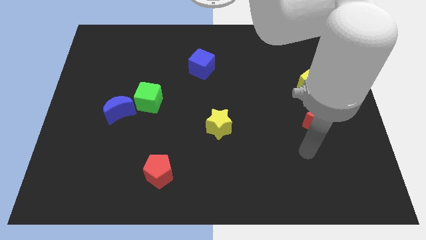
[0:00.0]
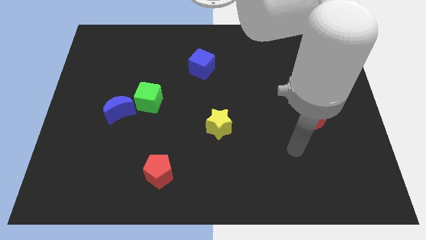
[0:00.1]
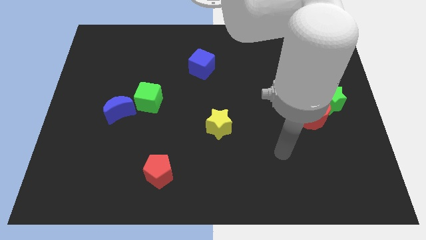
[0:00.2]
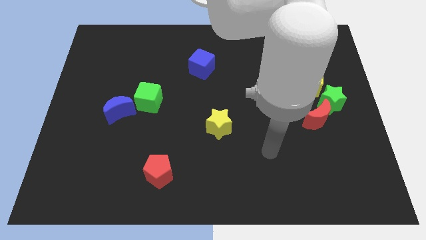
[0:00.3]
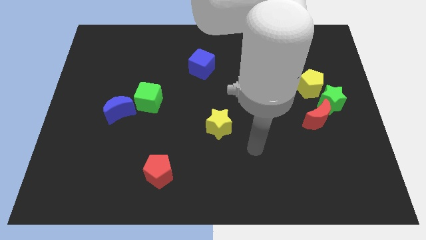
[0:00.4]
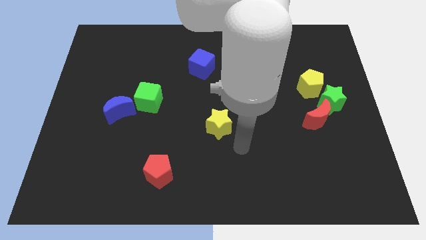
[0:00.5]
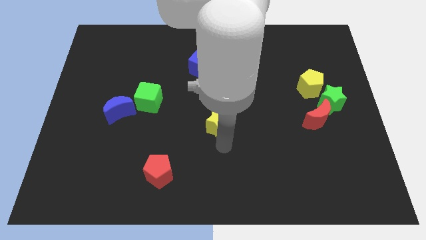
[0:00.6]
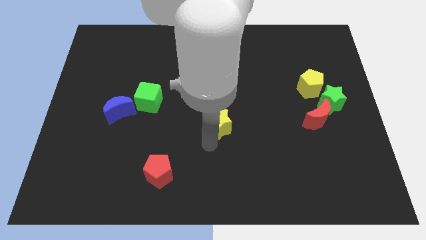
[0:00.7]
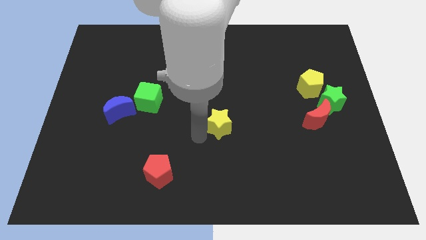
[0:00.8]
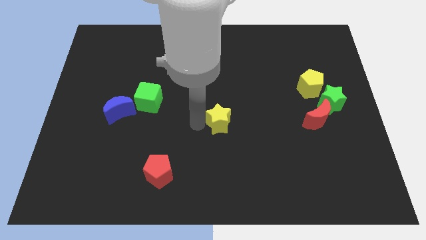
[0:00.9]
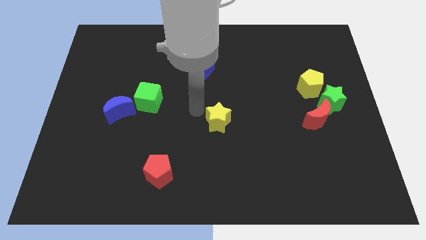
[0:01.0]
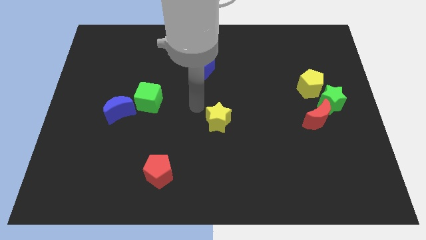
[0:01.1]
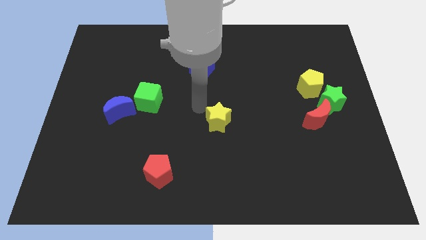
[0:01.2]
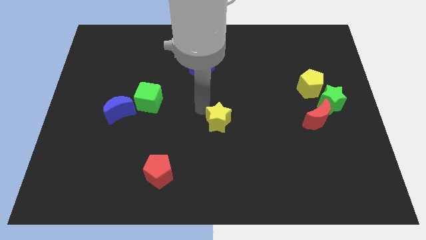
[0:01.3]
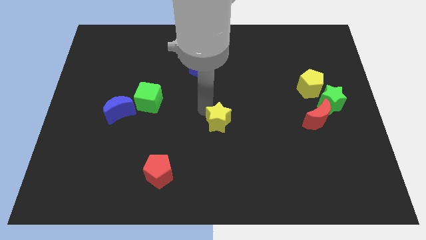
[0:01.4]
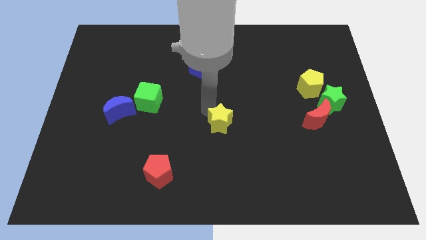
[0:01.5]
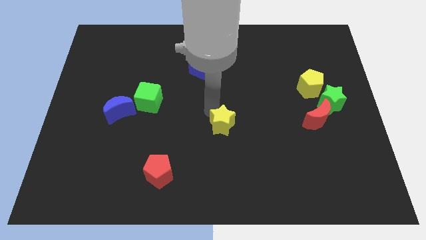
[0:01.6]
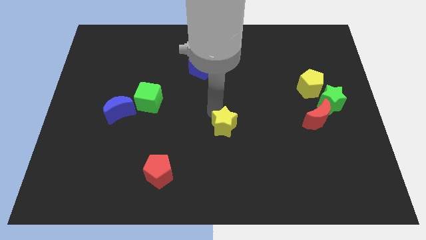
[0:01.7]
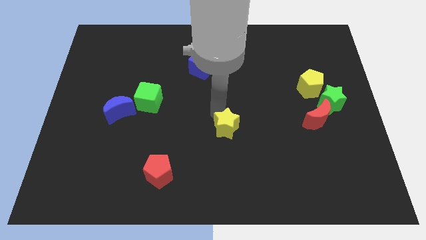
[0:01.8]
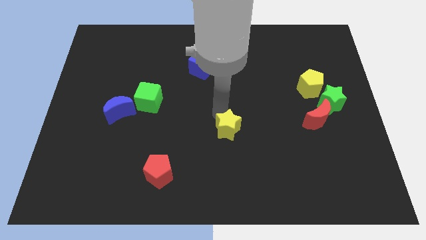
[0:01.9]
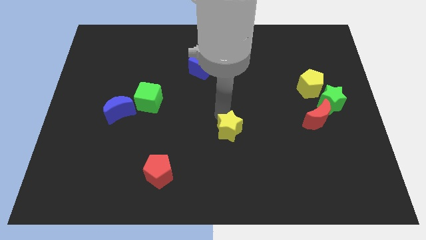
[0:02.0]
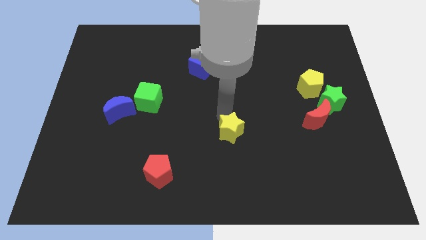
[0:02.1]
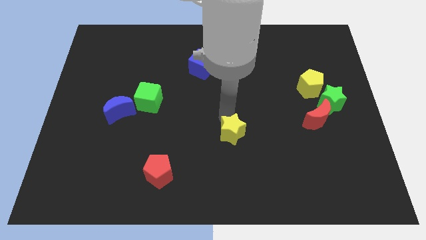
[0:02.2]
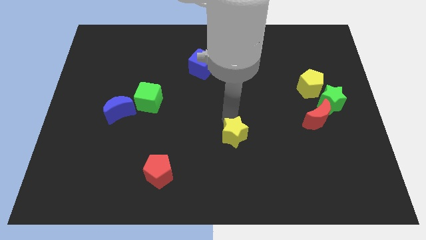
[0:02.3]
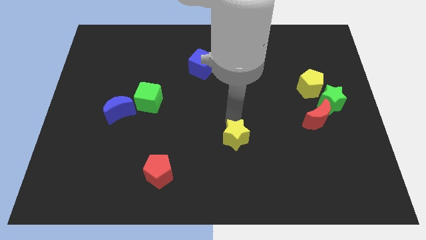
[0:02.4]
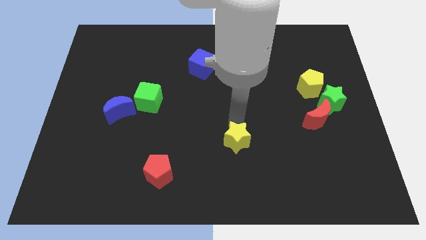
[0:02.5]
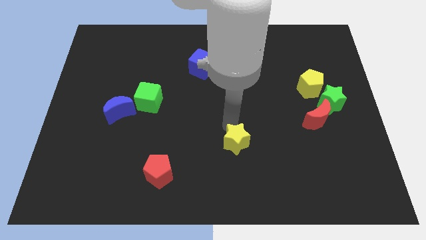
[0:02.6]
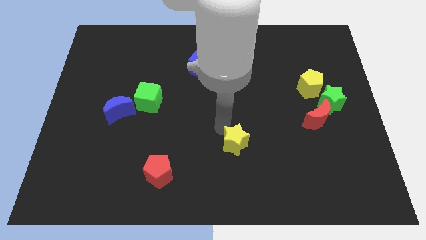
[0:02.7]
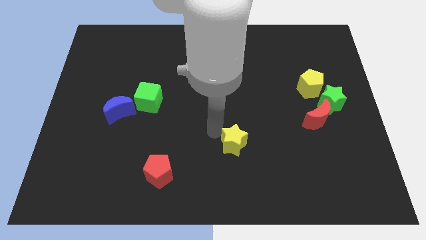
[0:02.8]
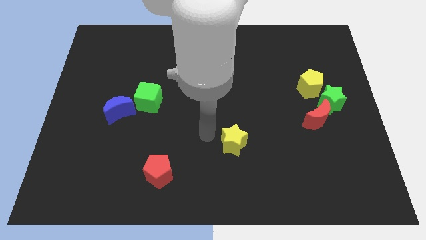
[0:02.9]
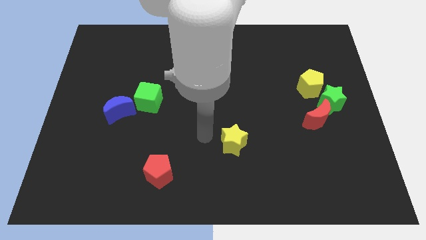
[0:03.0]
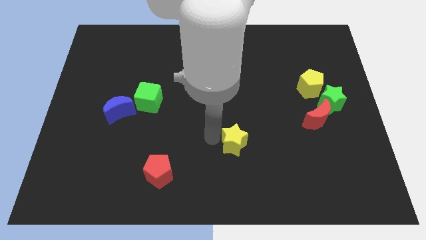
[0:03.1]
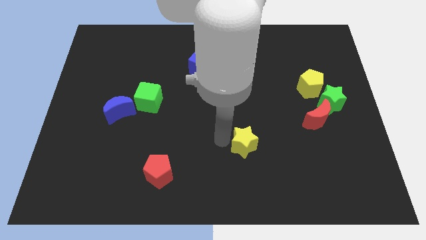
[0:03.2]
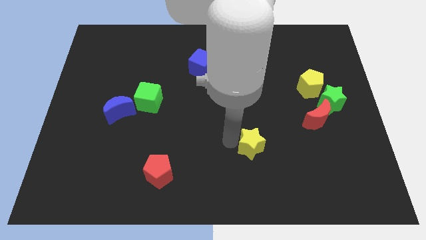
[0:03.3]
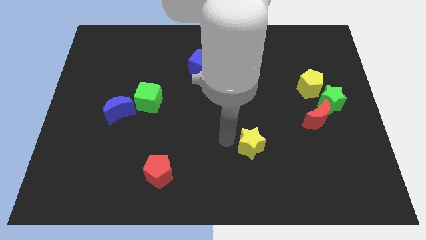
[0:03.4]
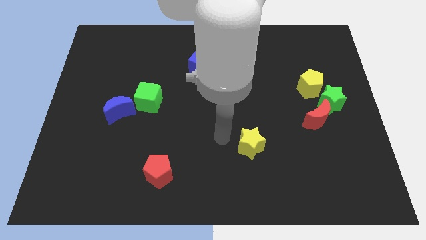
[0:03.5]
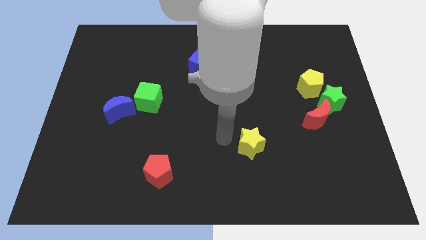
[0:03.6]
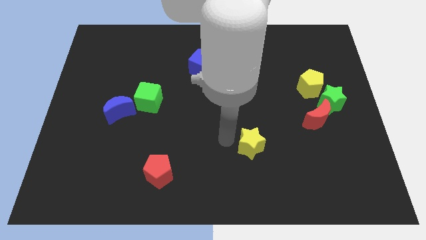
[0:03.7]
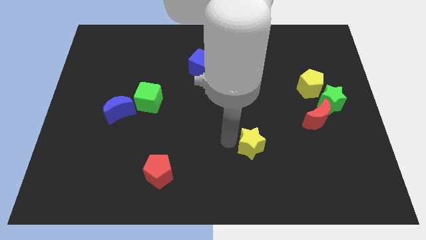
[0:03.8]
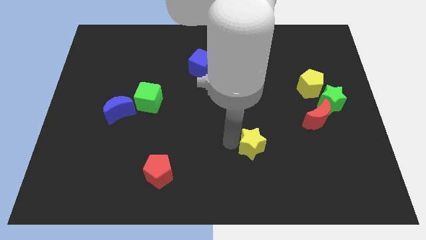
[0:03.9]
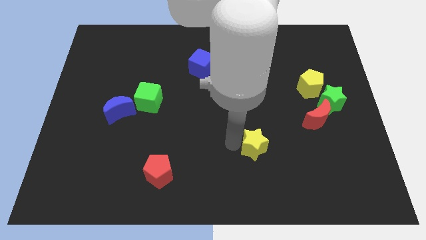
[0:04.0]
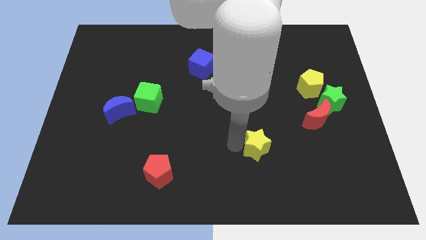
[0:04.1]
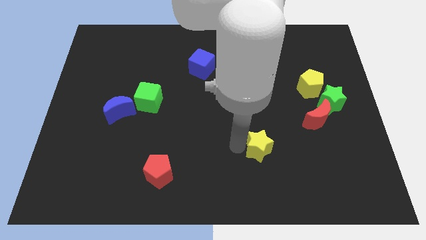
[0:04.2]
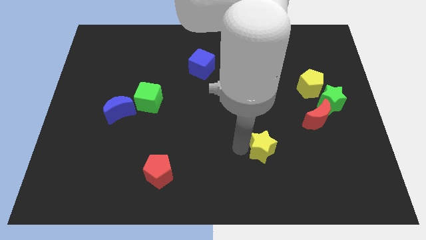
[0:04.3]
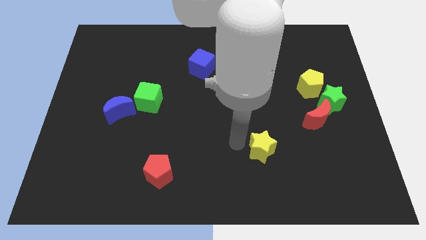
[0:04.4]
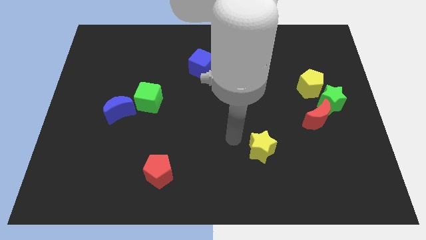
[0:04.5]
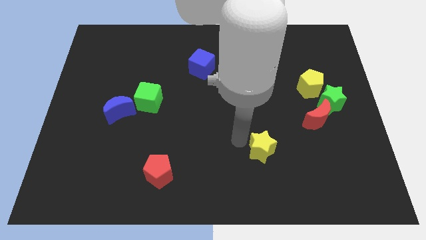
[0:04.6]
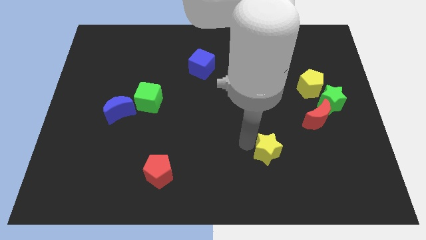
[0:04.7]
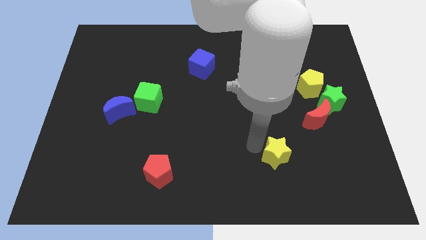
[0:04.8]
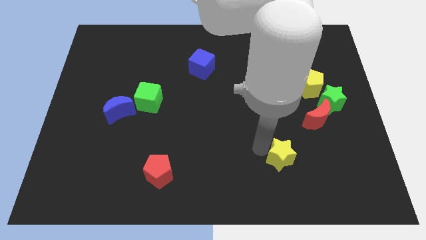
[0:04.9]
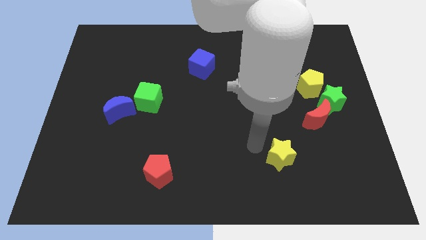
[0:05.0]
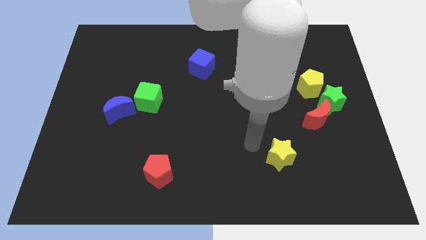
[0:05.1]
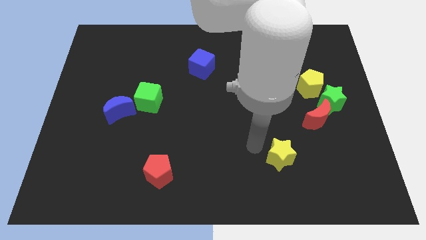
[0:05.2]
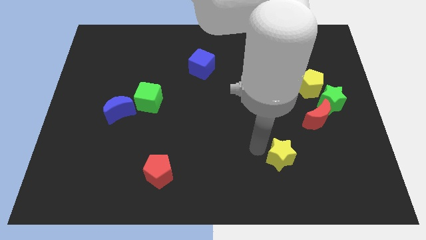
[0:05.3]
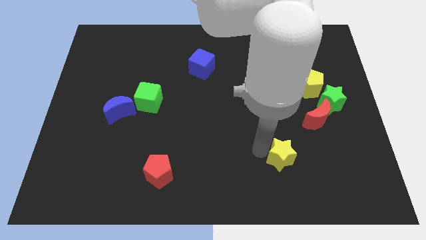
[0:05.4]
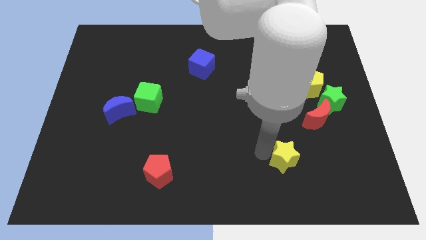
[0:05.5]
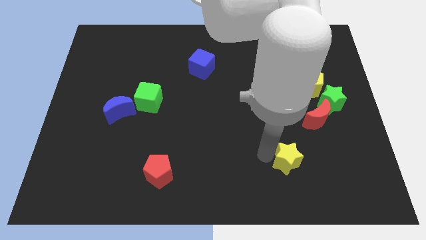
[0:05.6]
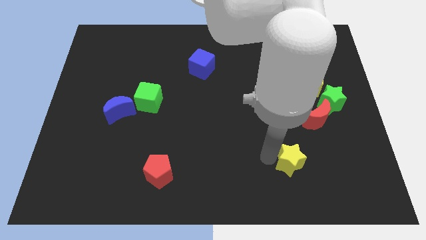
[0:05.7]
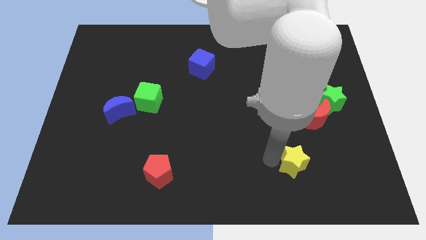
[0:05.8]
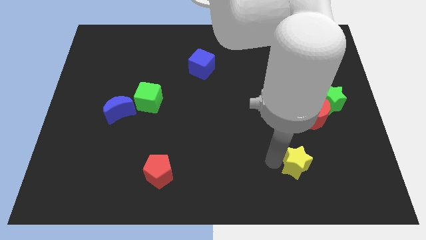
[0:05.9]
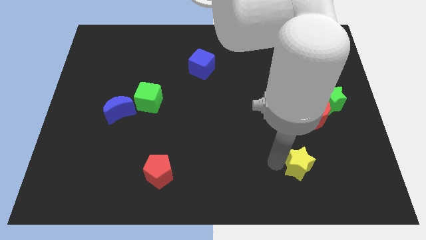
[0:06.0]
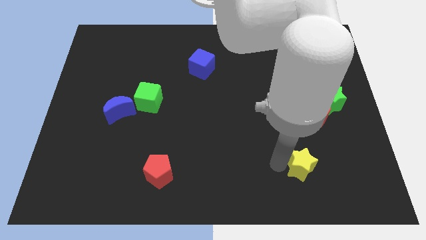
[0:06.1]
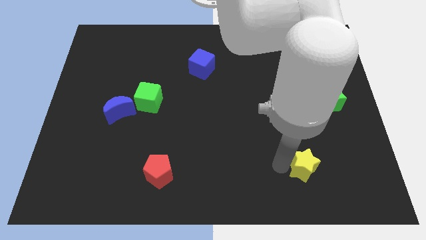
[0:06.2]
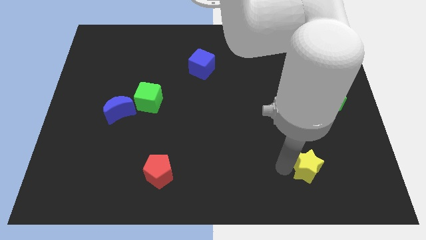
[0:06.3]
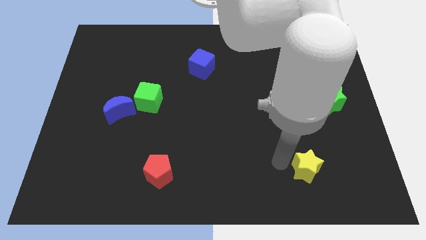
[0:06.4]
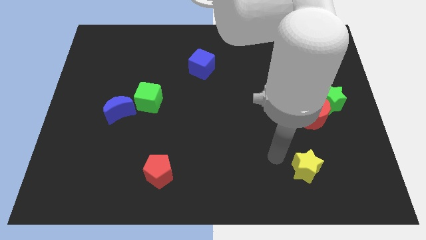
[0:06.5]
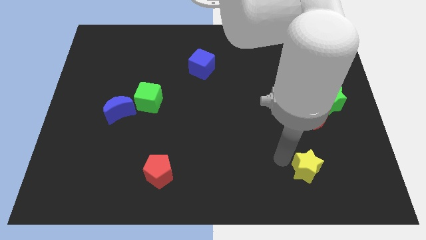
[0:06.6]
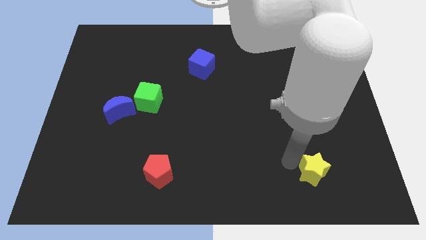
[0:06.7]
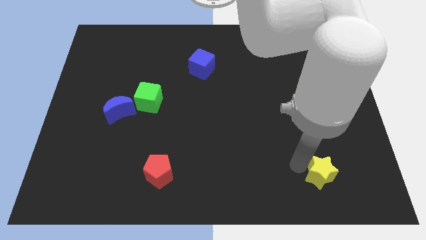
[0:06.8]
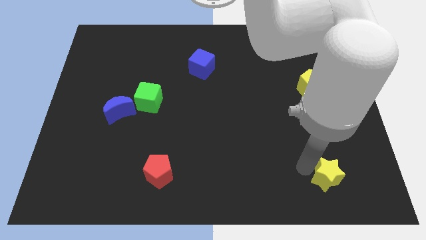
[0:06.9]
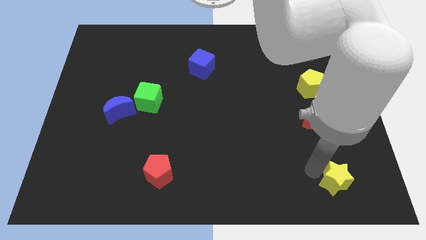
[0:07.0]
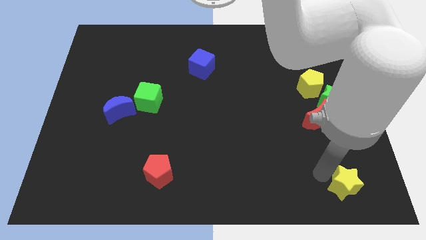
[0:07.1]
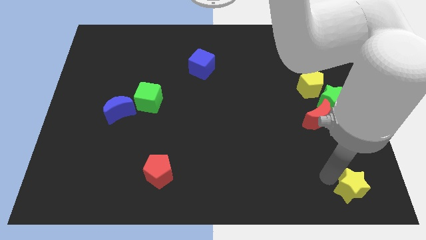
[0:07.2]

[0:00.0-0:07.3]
put the yellow star to the bottom right of the board
